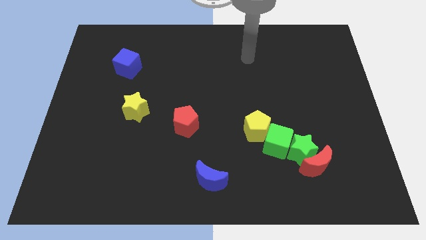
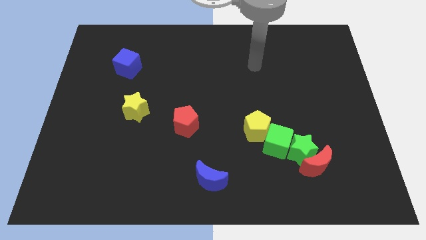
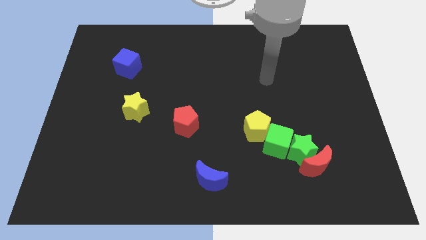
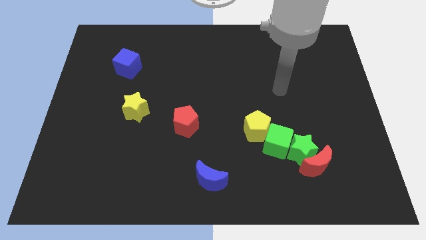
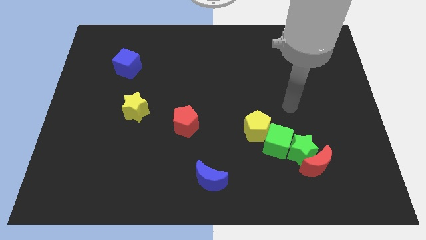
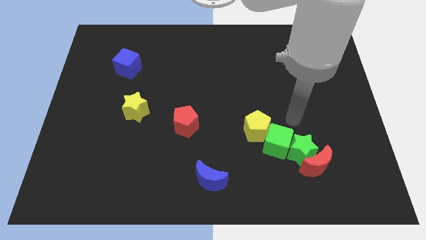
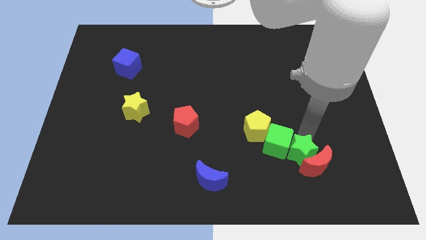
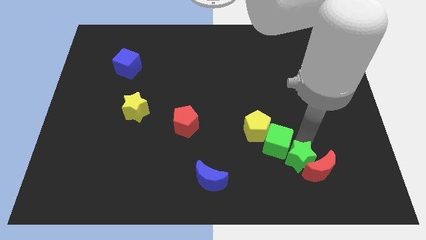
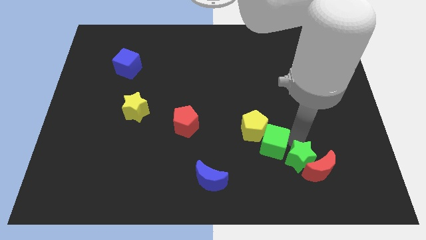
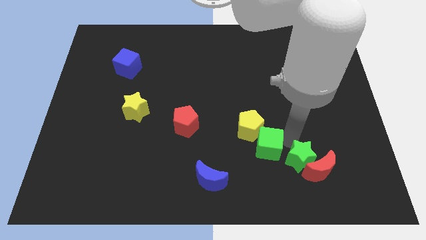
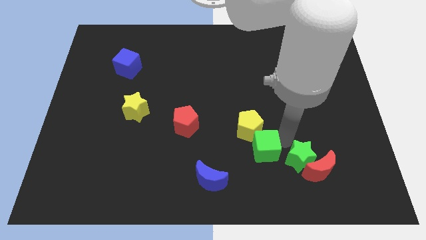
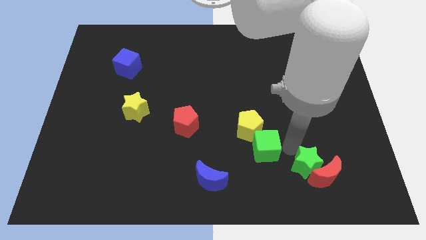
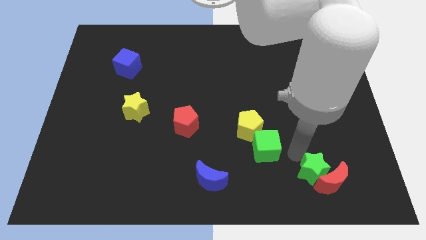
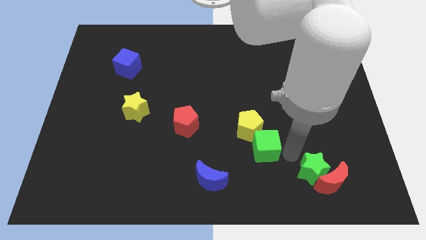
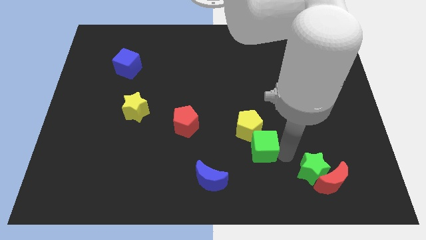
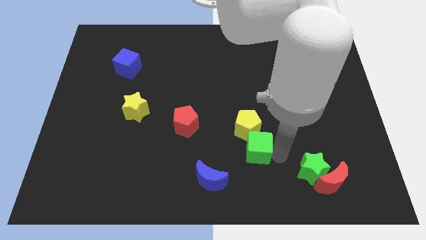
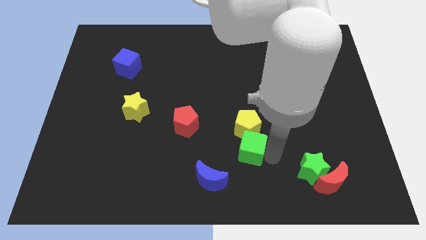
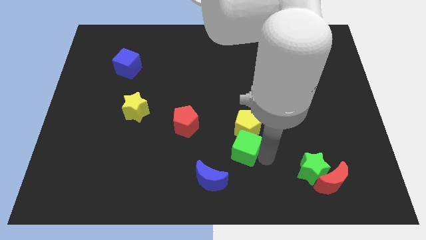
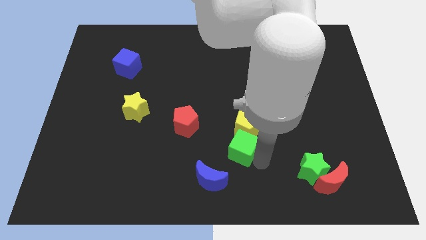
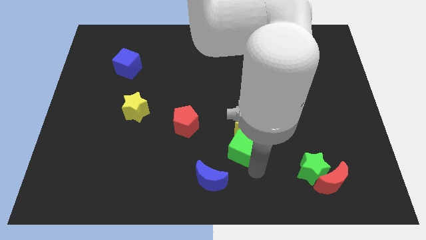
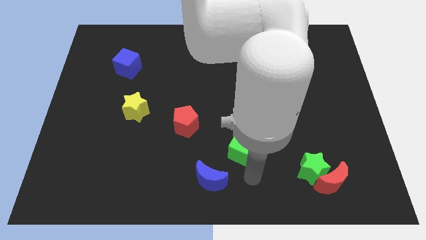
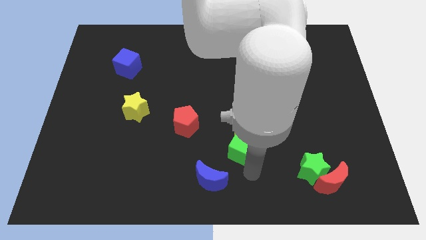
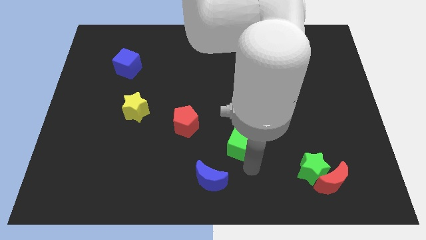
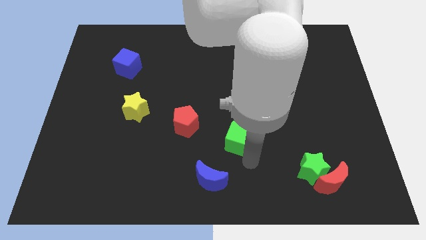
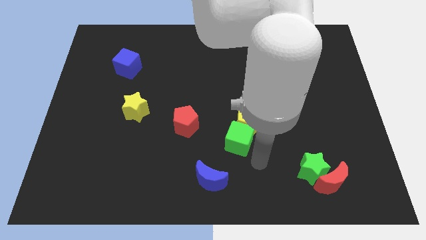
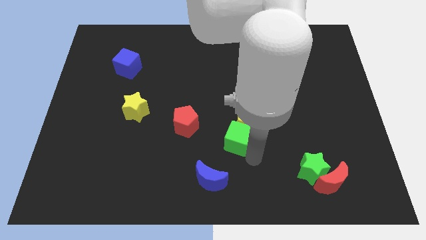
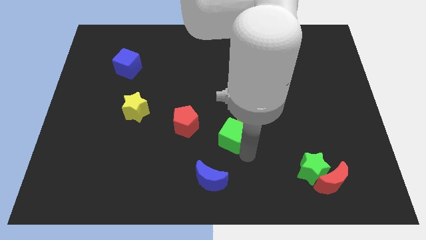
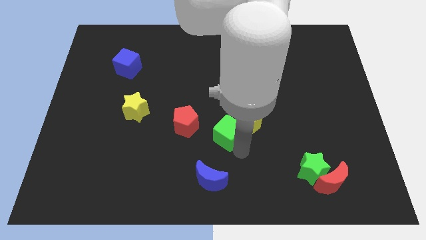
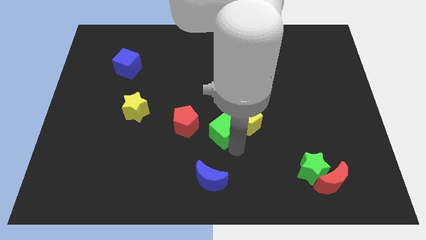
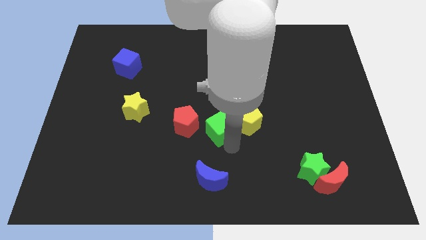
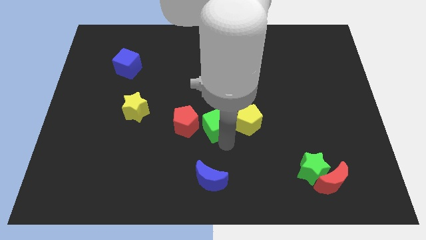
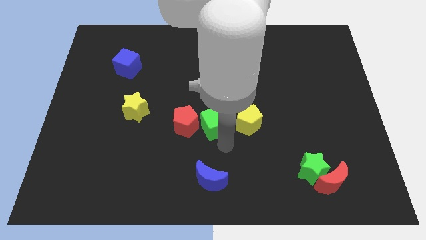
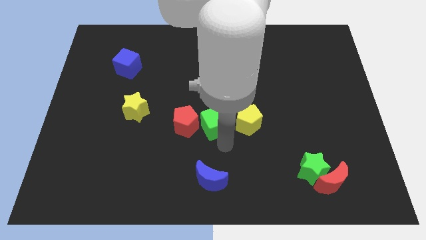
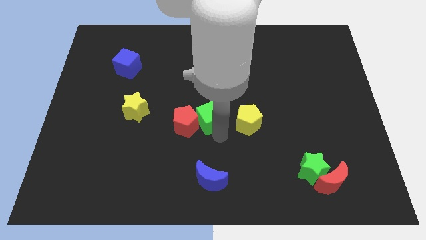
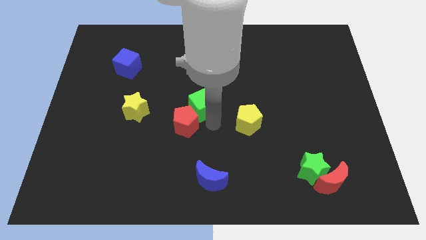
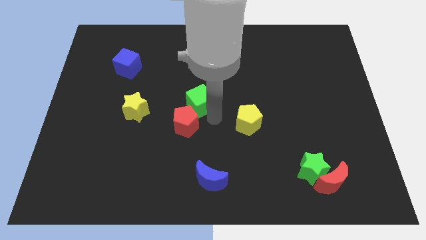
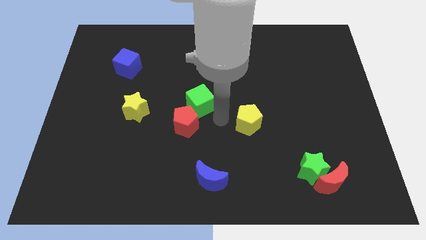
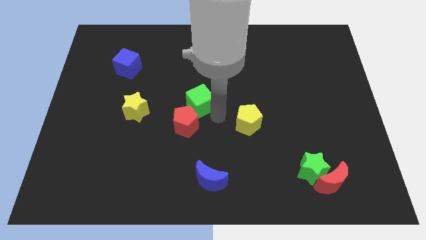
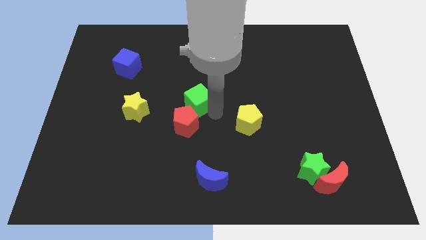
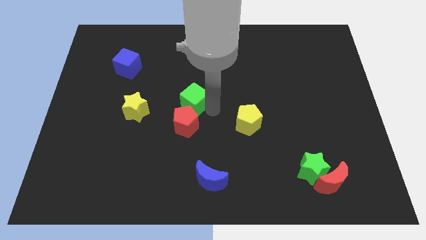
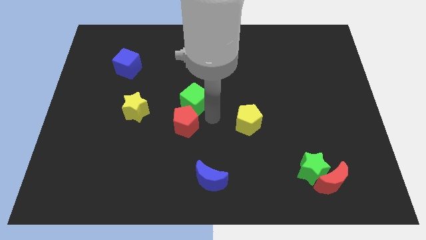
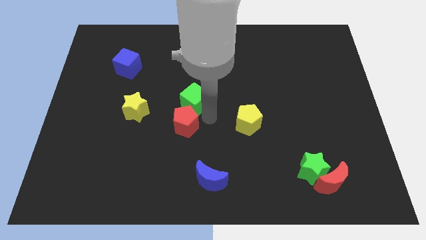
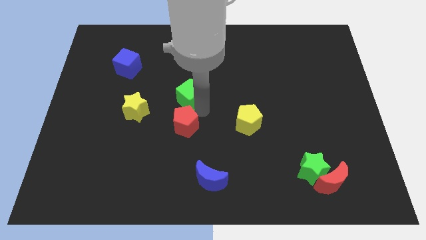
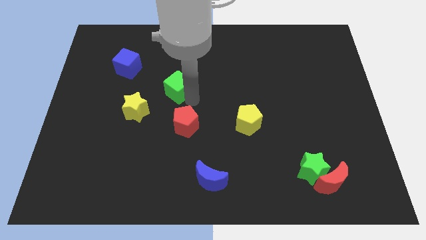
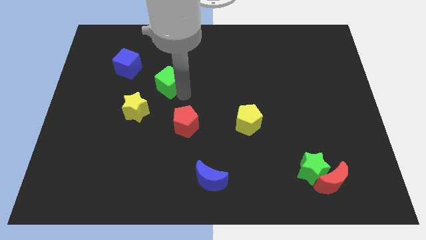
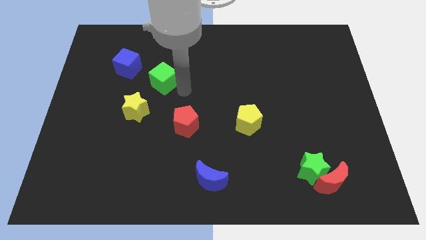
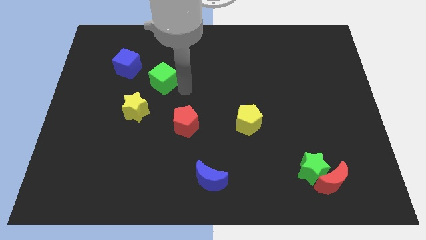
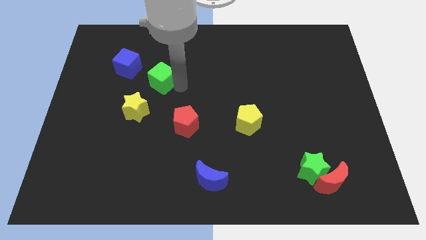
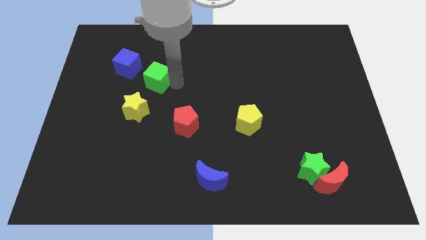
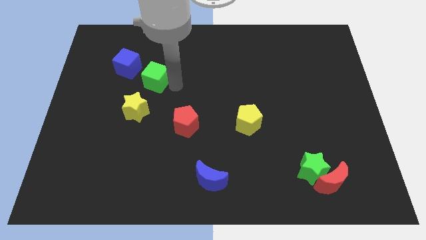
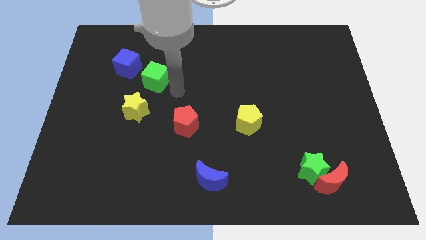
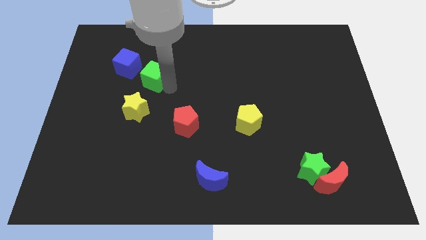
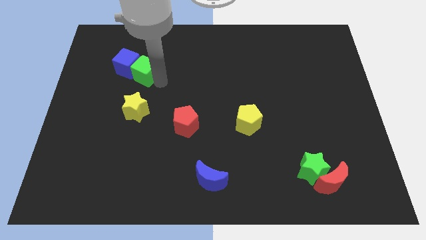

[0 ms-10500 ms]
put the green cube next to the blue cube
